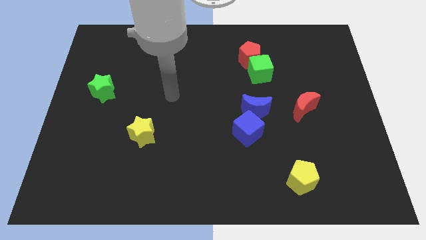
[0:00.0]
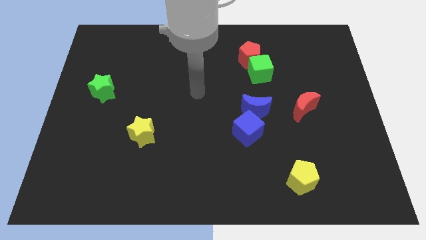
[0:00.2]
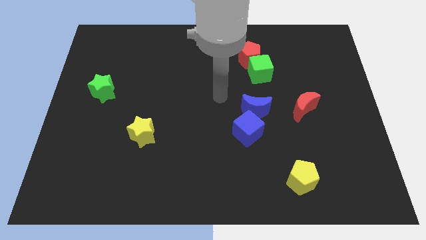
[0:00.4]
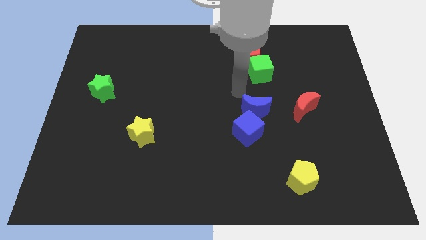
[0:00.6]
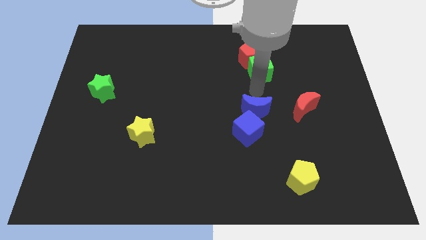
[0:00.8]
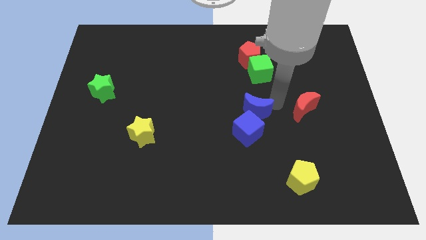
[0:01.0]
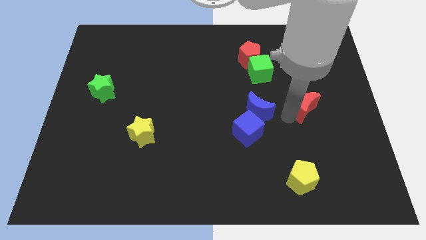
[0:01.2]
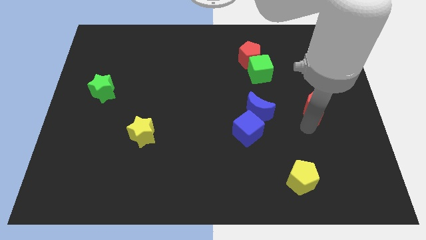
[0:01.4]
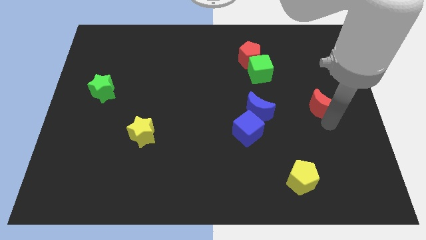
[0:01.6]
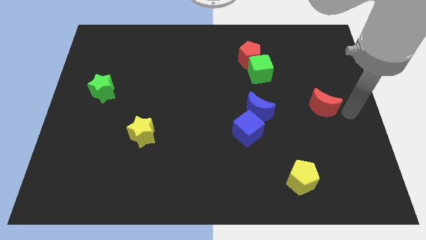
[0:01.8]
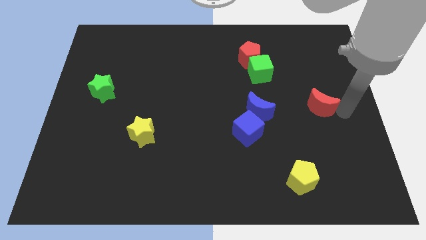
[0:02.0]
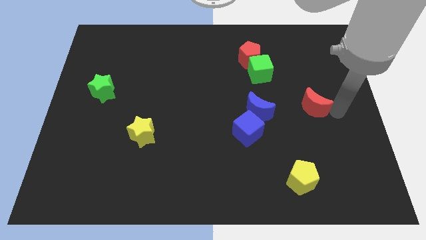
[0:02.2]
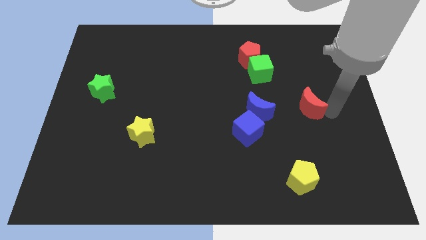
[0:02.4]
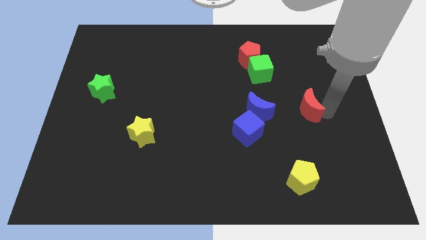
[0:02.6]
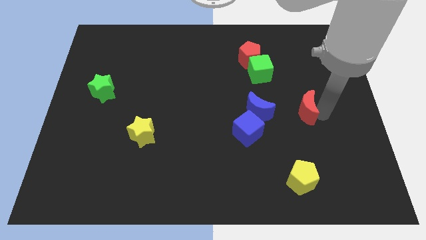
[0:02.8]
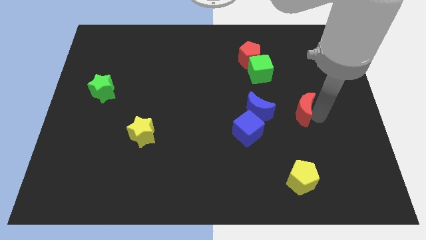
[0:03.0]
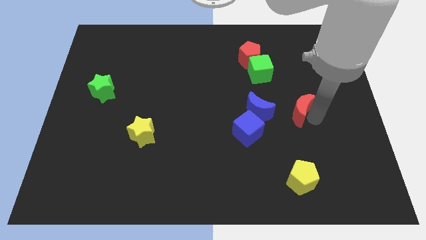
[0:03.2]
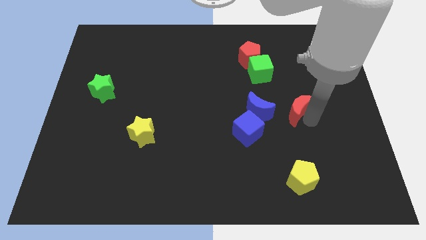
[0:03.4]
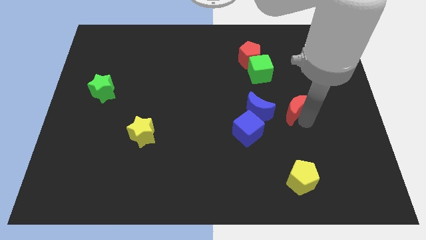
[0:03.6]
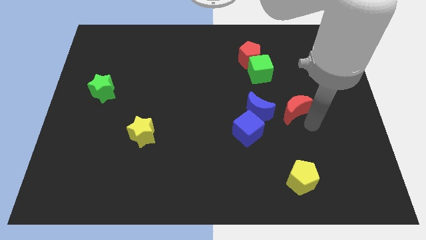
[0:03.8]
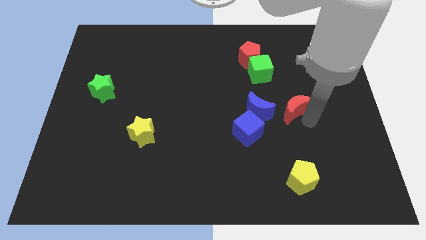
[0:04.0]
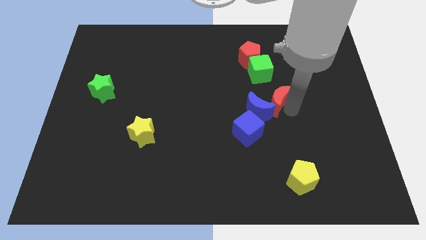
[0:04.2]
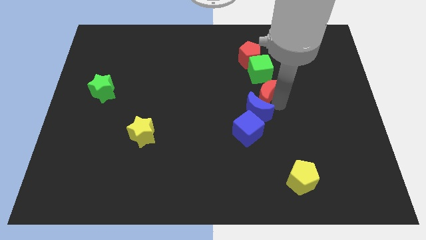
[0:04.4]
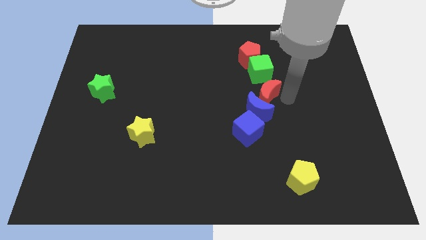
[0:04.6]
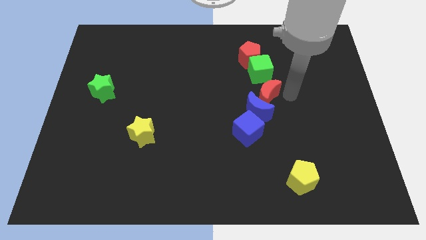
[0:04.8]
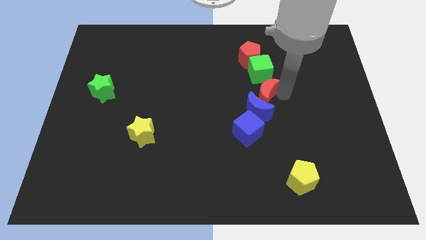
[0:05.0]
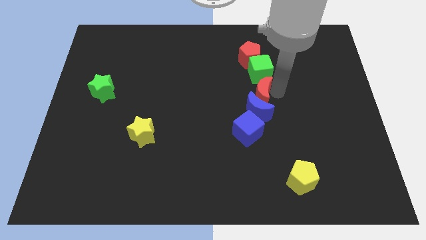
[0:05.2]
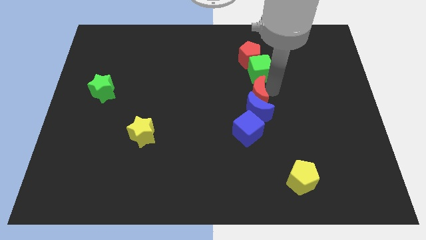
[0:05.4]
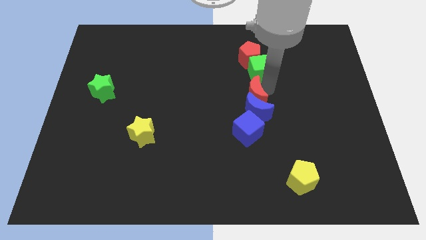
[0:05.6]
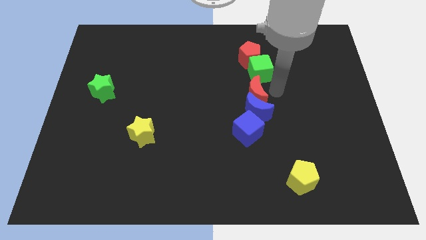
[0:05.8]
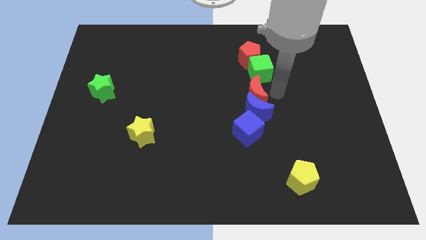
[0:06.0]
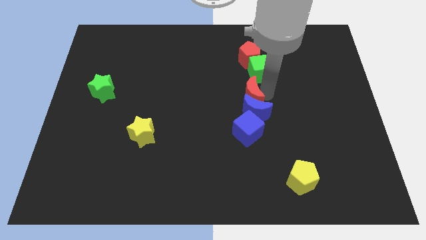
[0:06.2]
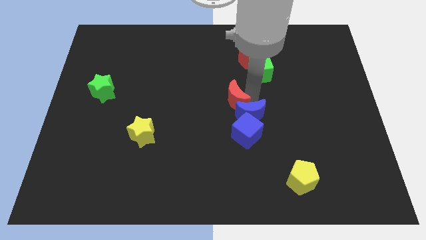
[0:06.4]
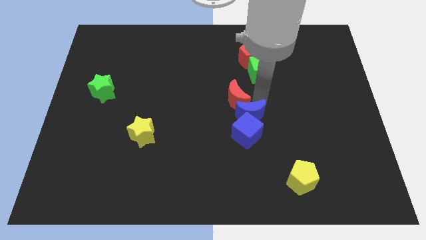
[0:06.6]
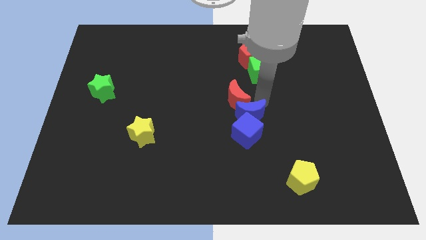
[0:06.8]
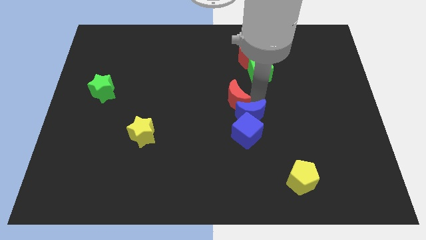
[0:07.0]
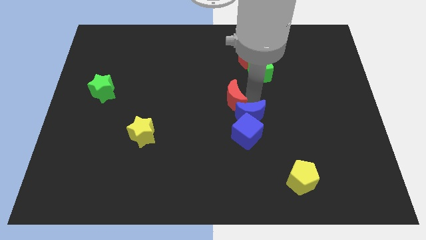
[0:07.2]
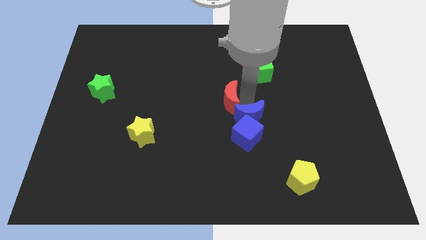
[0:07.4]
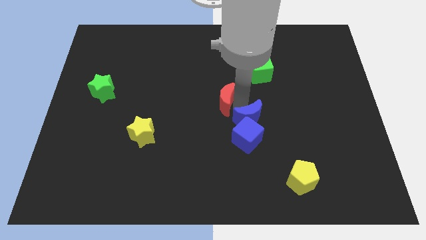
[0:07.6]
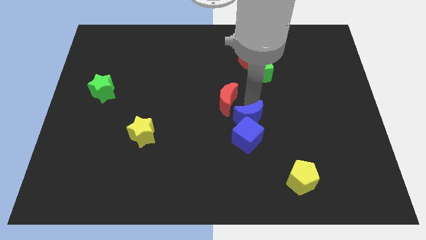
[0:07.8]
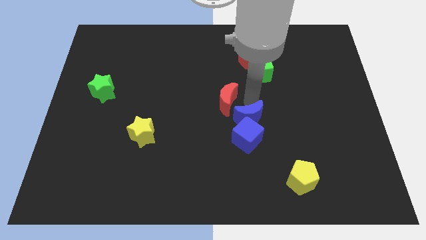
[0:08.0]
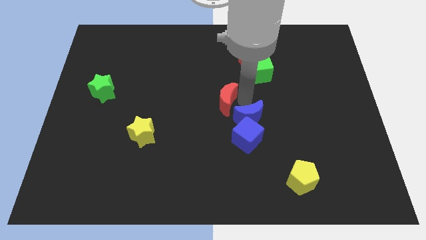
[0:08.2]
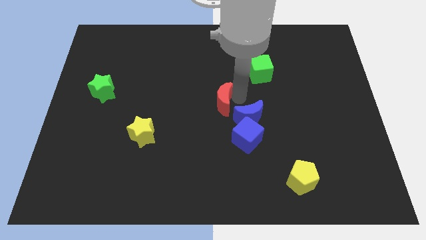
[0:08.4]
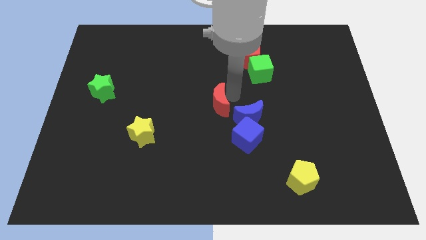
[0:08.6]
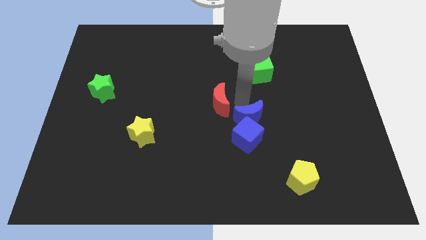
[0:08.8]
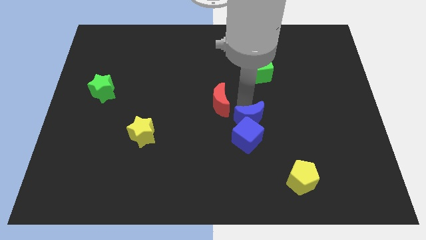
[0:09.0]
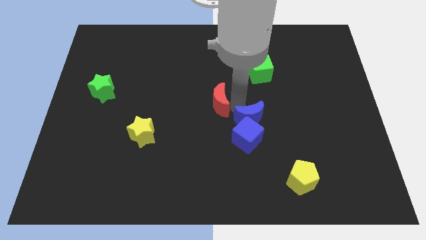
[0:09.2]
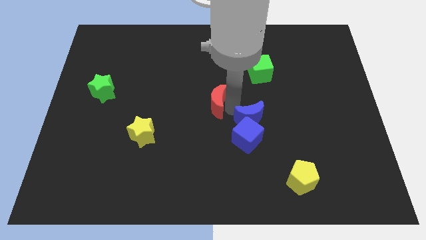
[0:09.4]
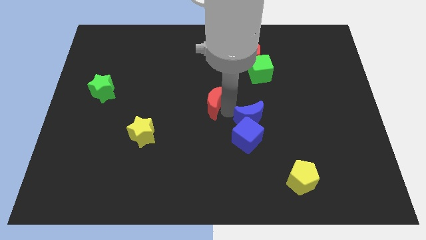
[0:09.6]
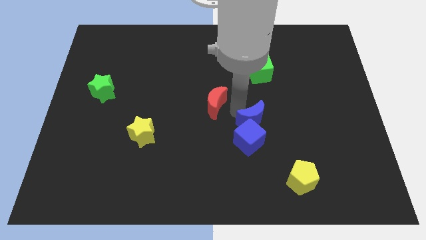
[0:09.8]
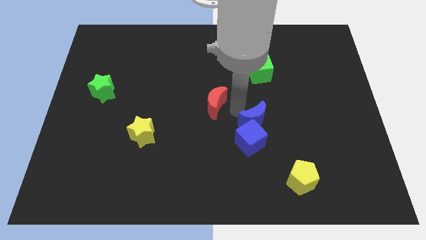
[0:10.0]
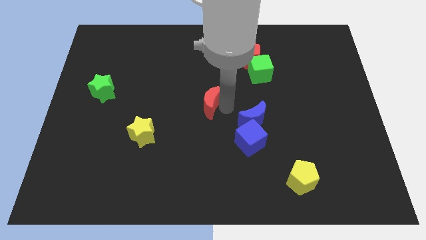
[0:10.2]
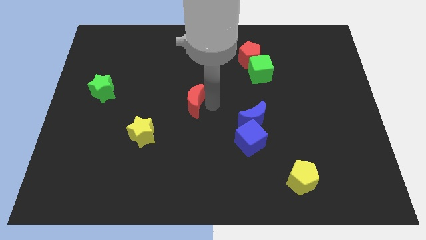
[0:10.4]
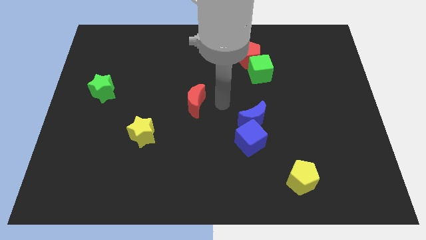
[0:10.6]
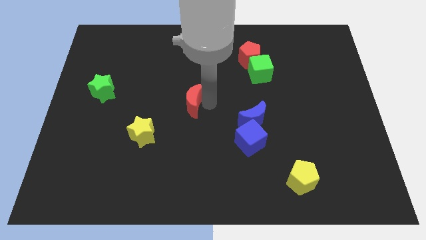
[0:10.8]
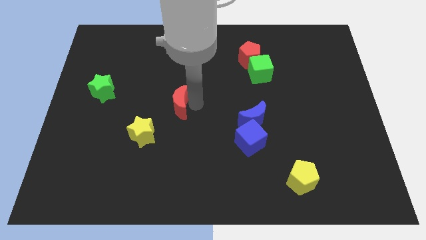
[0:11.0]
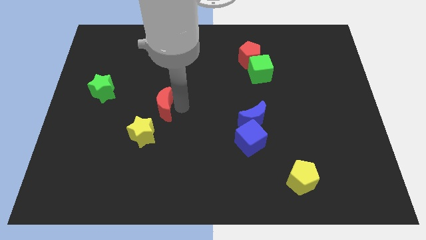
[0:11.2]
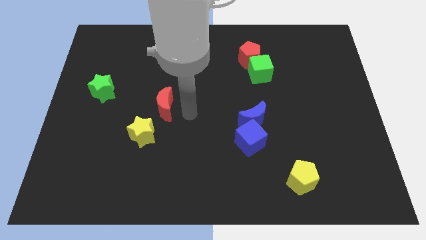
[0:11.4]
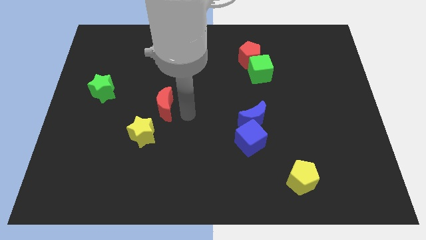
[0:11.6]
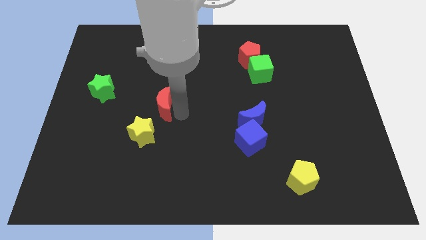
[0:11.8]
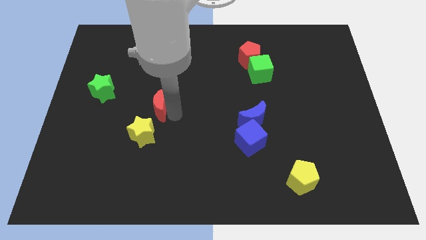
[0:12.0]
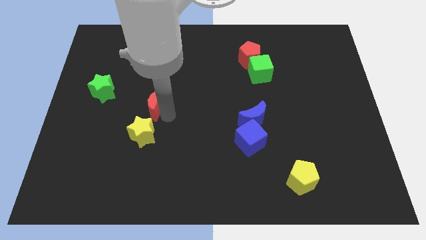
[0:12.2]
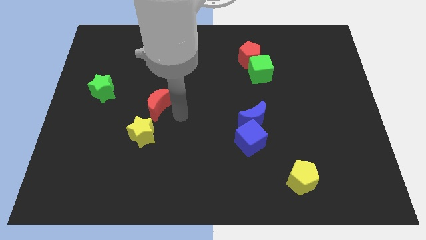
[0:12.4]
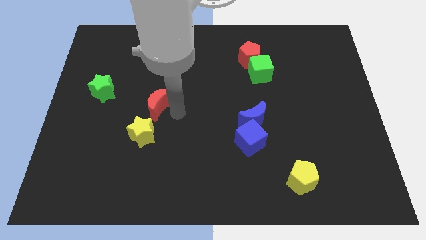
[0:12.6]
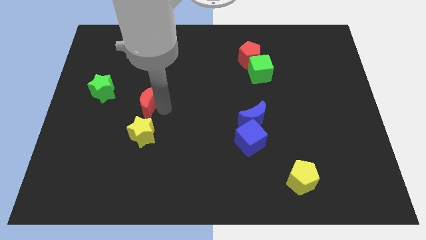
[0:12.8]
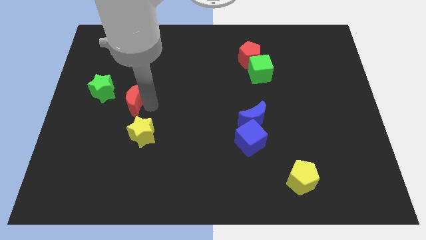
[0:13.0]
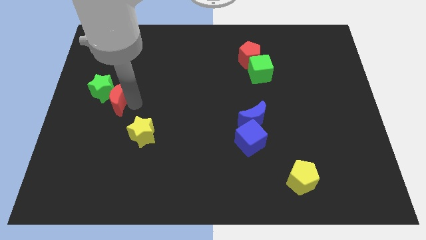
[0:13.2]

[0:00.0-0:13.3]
push the red moon next to the green star
